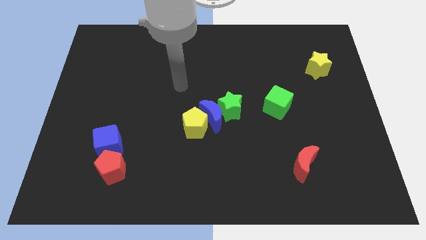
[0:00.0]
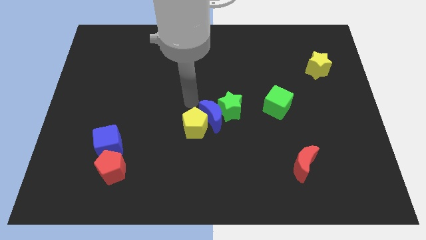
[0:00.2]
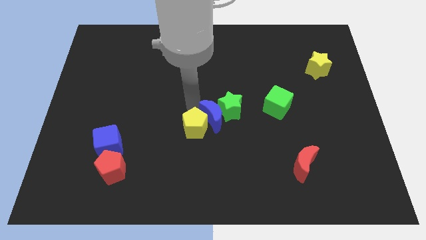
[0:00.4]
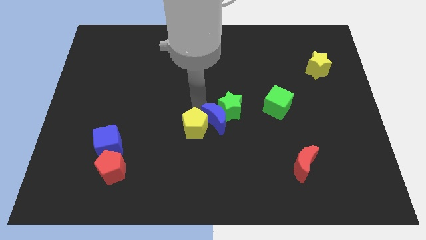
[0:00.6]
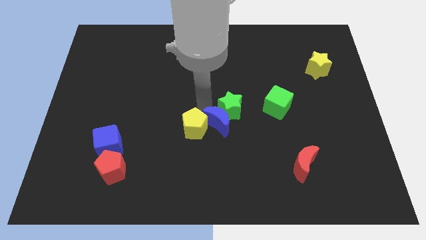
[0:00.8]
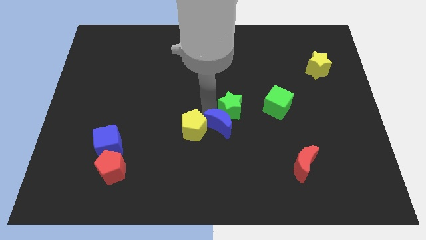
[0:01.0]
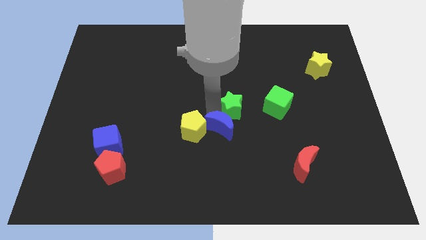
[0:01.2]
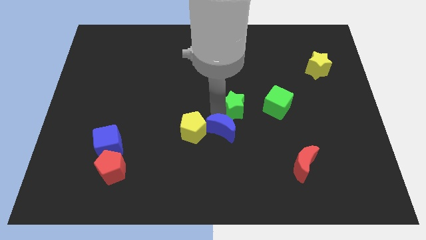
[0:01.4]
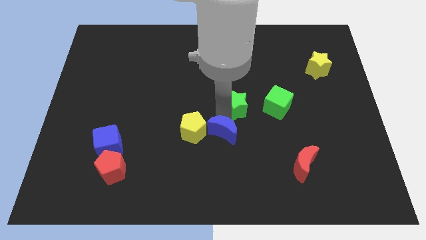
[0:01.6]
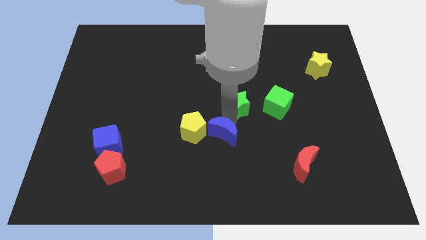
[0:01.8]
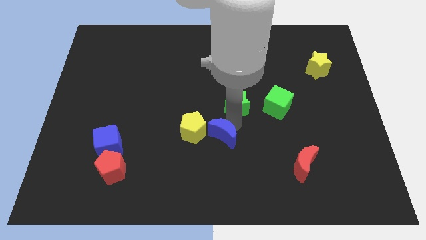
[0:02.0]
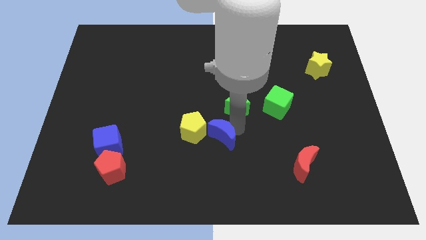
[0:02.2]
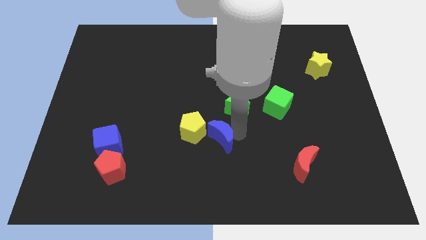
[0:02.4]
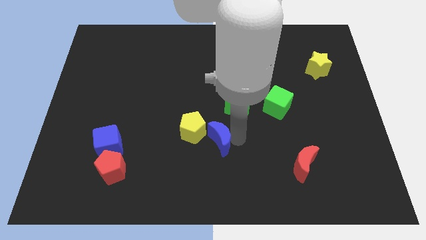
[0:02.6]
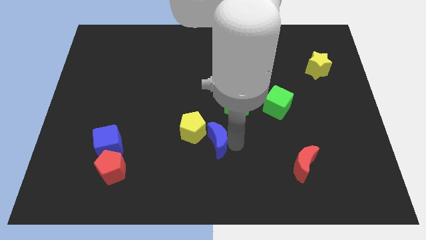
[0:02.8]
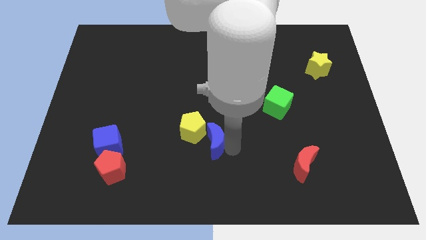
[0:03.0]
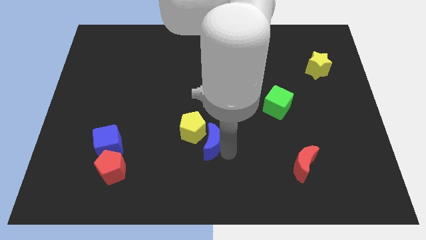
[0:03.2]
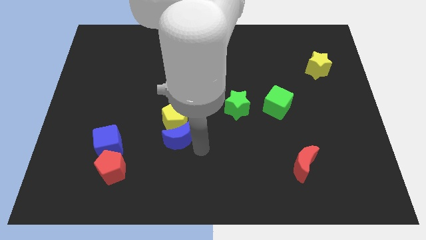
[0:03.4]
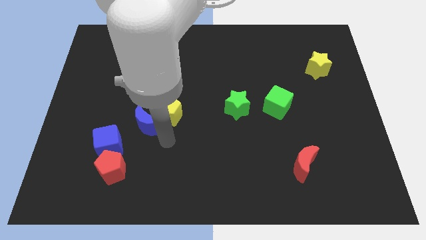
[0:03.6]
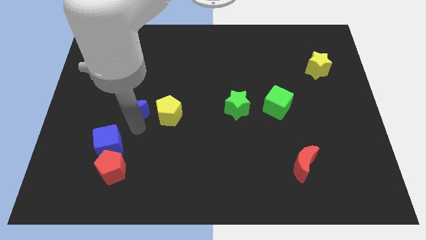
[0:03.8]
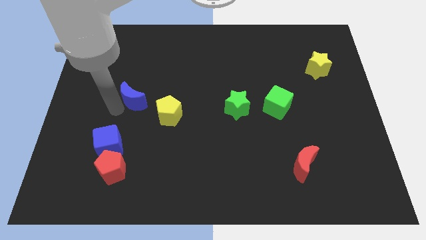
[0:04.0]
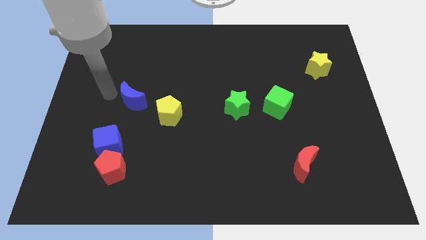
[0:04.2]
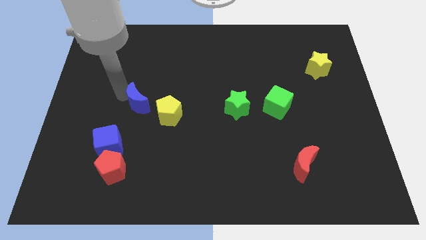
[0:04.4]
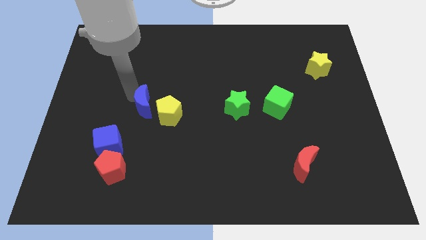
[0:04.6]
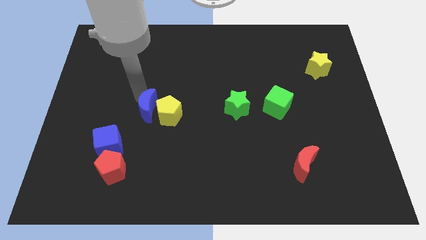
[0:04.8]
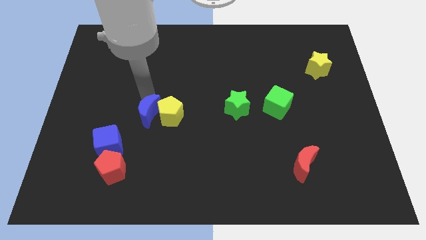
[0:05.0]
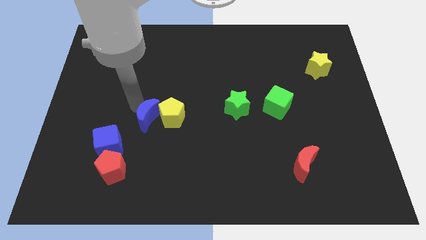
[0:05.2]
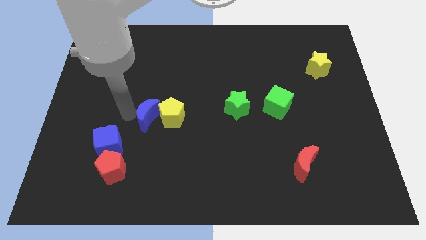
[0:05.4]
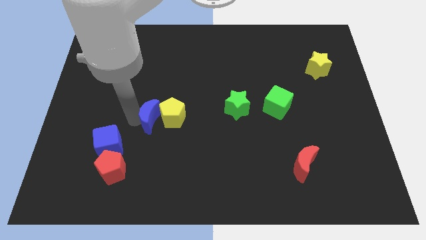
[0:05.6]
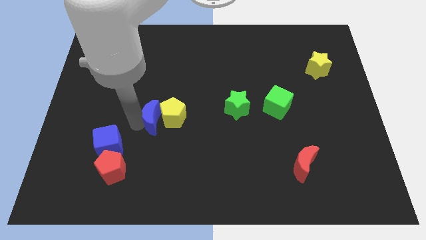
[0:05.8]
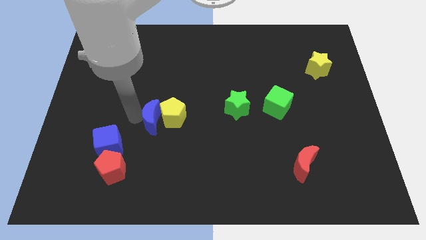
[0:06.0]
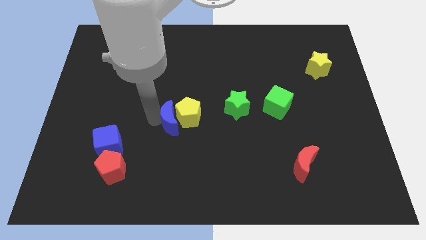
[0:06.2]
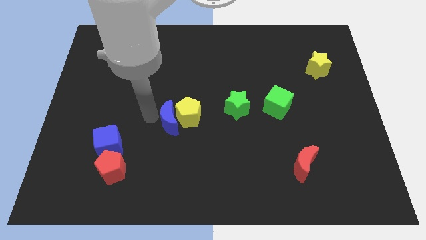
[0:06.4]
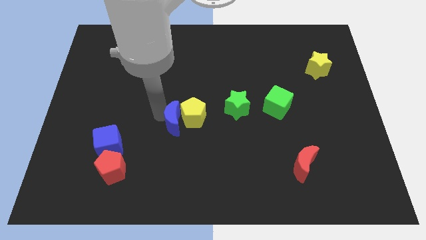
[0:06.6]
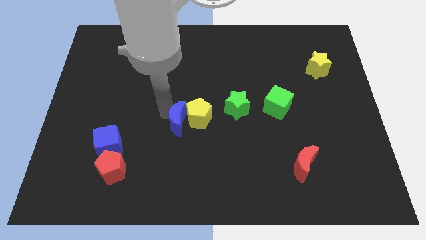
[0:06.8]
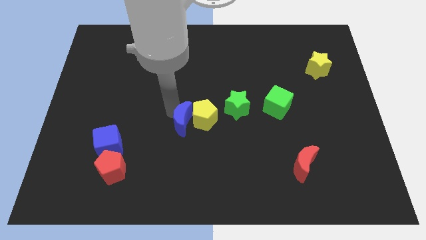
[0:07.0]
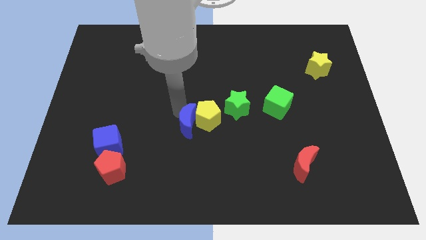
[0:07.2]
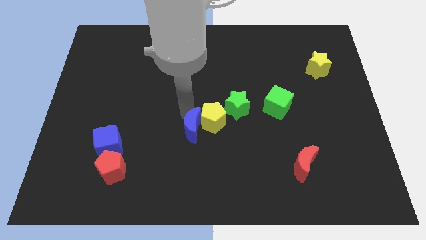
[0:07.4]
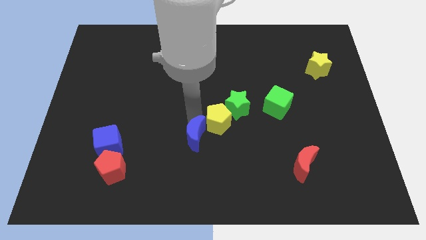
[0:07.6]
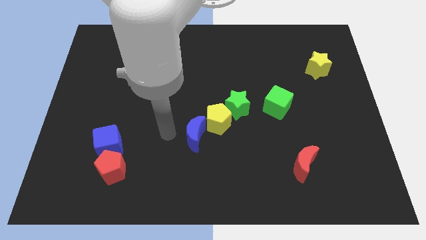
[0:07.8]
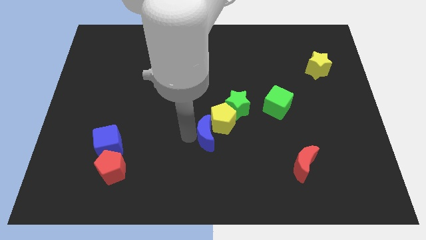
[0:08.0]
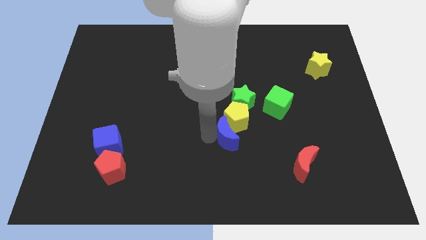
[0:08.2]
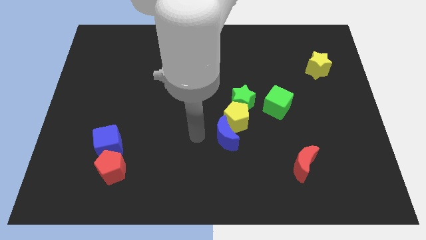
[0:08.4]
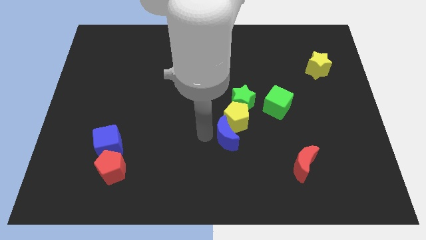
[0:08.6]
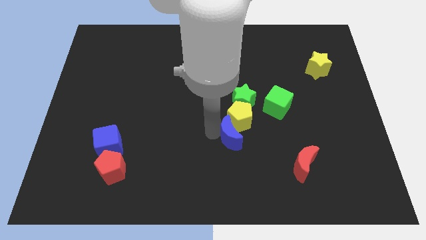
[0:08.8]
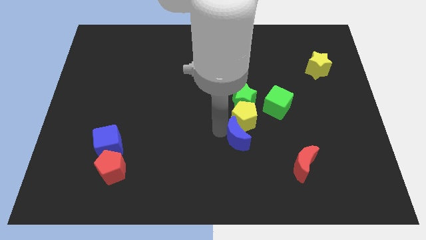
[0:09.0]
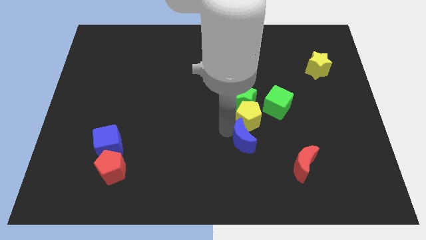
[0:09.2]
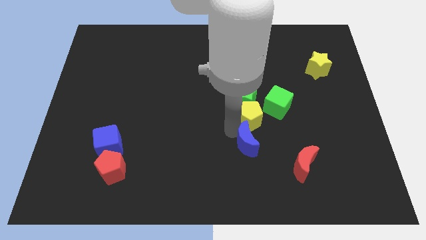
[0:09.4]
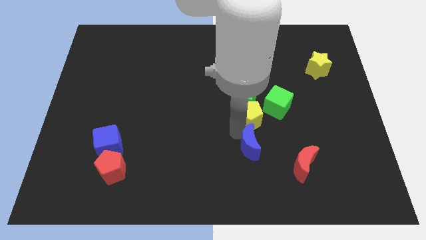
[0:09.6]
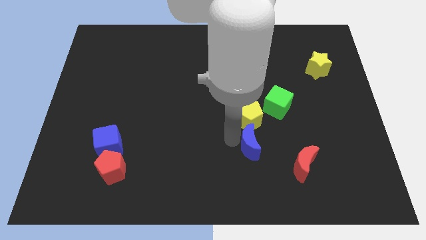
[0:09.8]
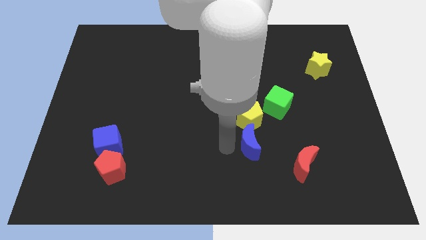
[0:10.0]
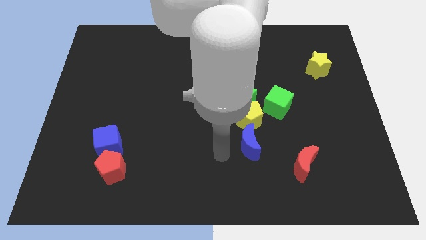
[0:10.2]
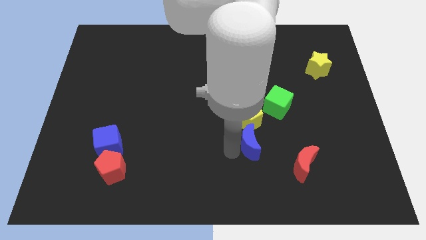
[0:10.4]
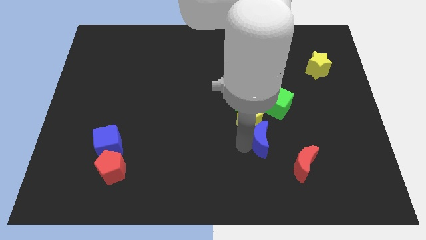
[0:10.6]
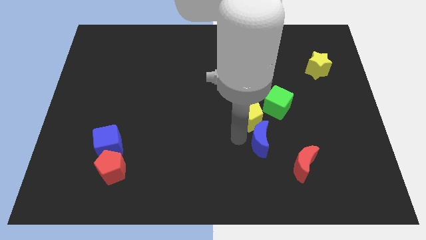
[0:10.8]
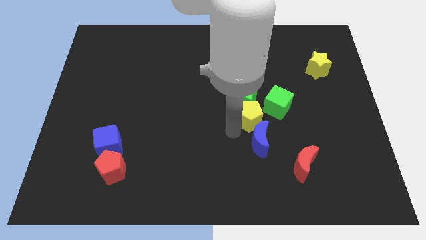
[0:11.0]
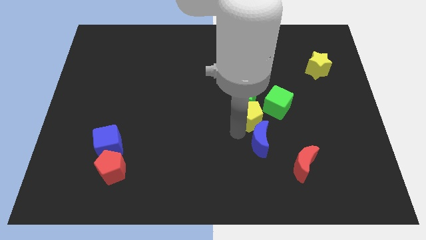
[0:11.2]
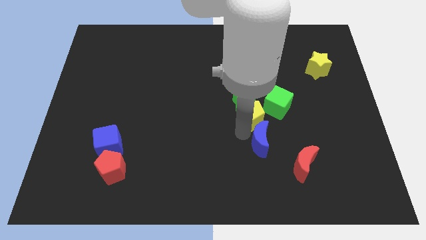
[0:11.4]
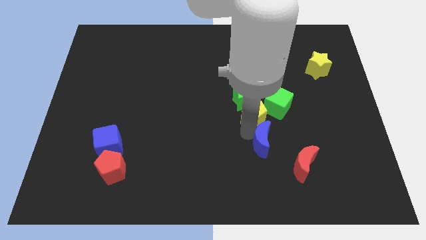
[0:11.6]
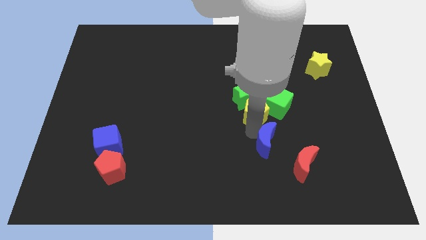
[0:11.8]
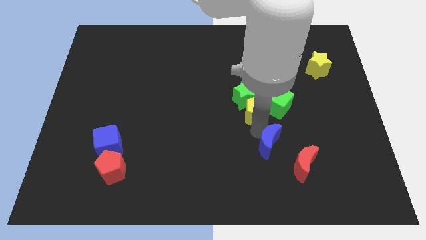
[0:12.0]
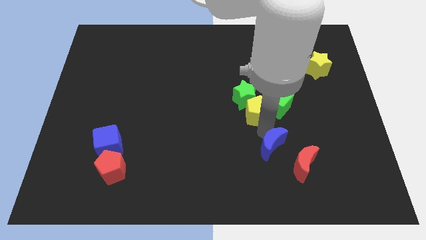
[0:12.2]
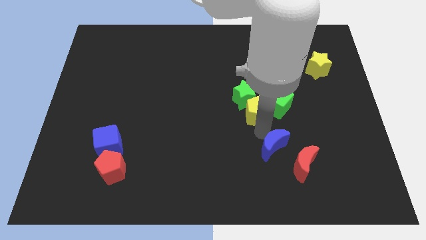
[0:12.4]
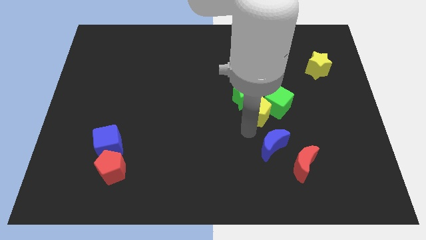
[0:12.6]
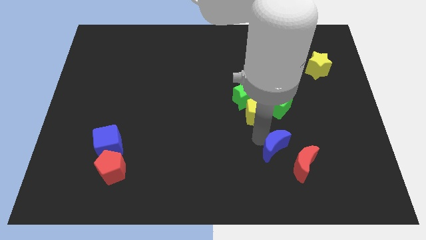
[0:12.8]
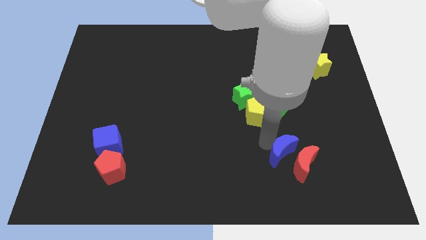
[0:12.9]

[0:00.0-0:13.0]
push the blue moon close to the red moon
